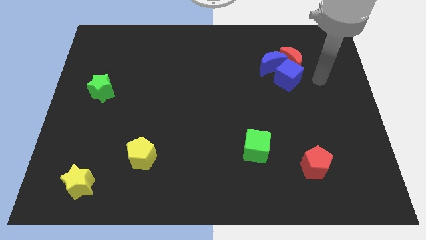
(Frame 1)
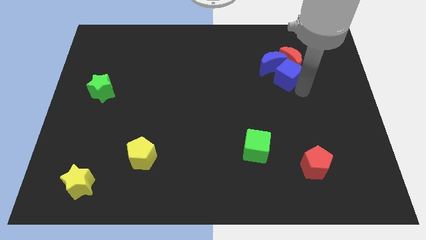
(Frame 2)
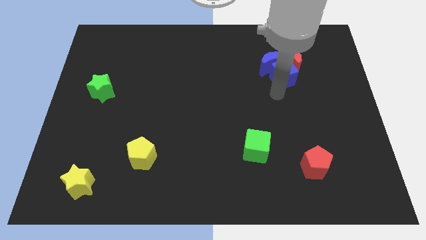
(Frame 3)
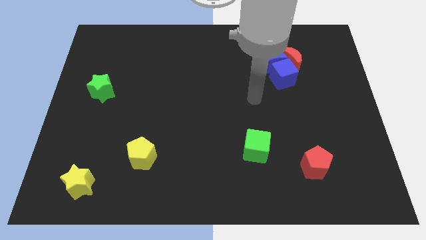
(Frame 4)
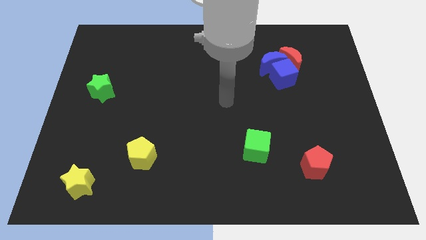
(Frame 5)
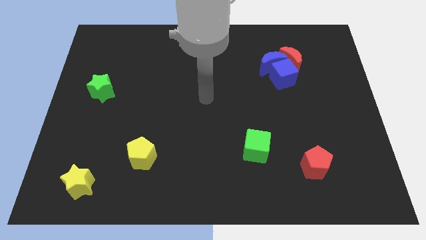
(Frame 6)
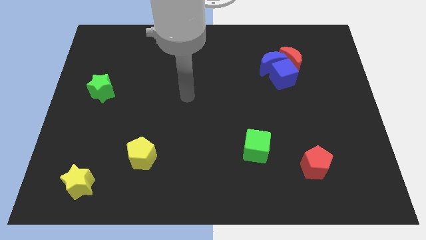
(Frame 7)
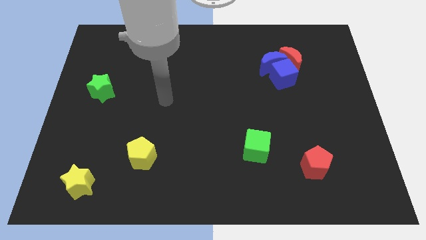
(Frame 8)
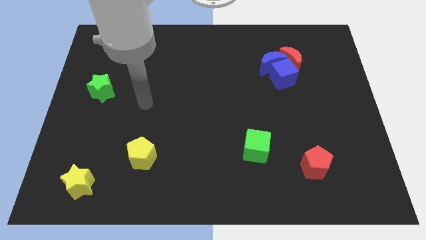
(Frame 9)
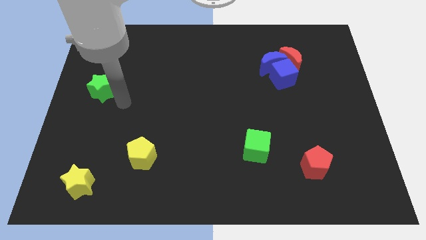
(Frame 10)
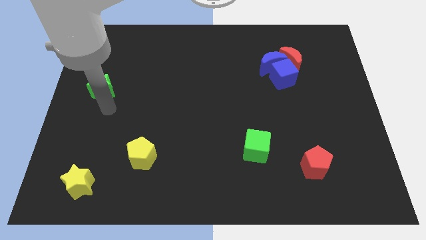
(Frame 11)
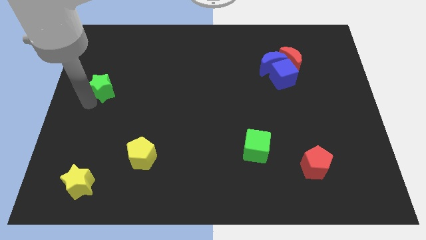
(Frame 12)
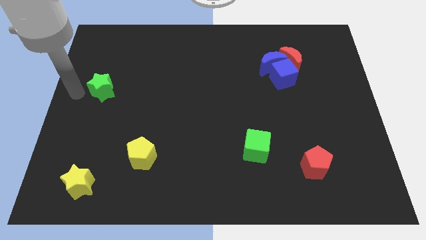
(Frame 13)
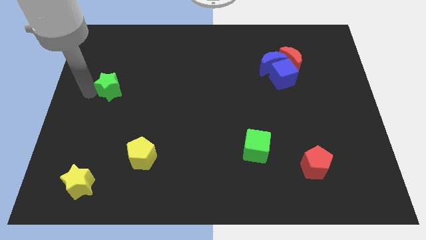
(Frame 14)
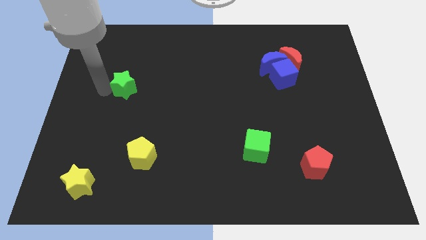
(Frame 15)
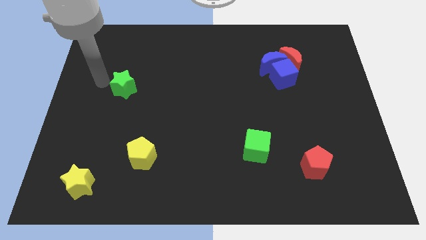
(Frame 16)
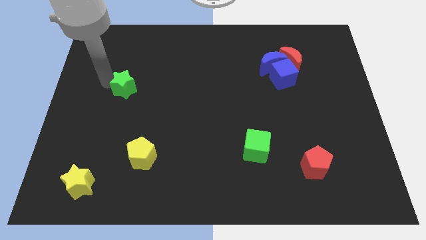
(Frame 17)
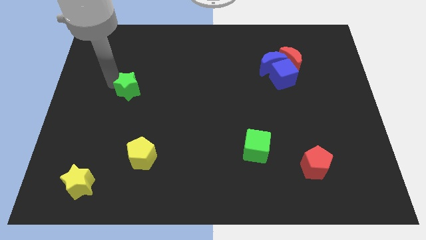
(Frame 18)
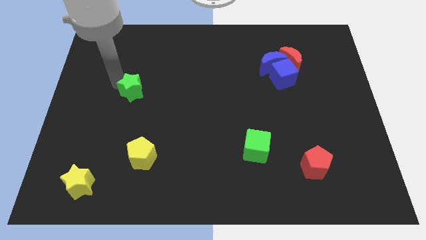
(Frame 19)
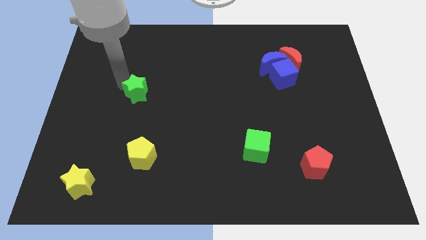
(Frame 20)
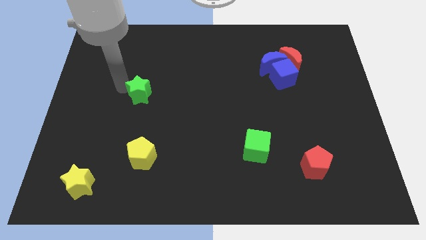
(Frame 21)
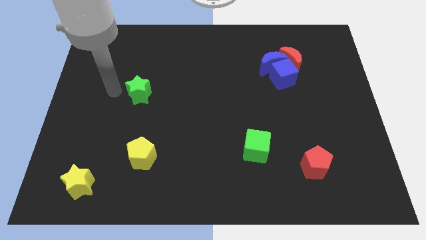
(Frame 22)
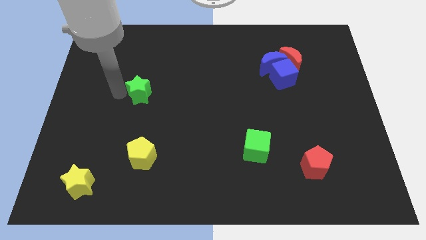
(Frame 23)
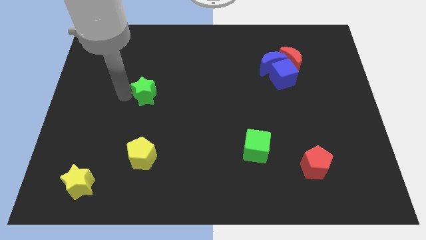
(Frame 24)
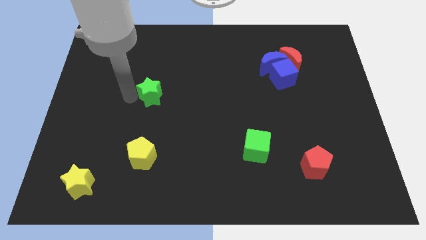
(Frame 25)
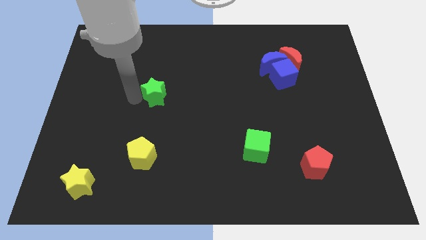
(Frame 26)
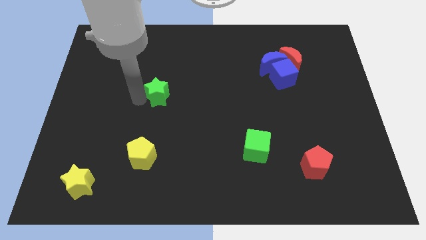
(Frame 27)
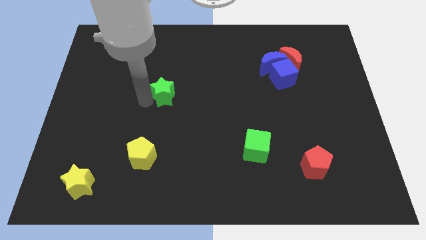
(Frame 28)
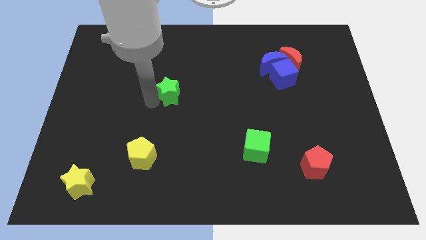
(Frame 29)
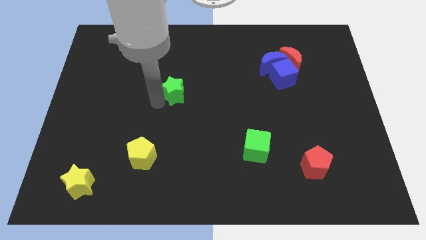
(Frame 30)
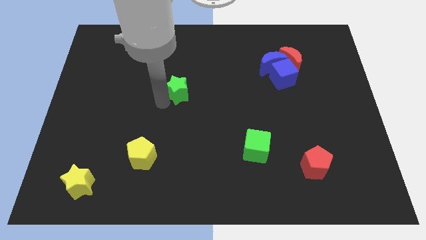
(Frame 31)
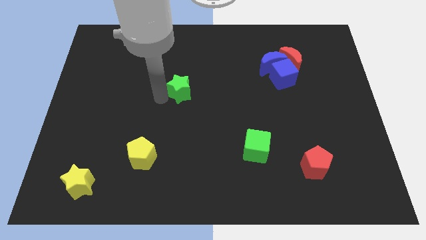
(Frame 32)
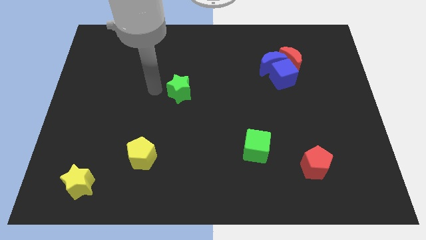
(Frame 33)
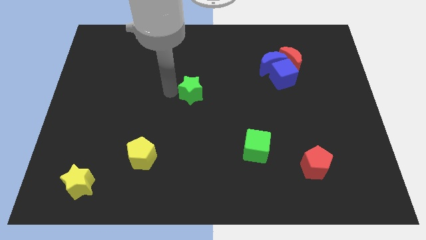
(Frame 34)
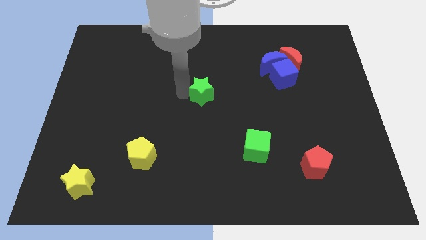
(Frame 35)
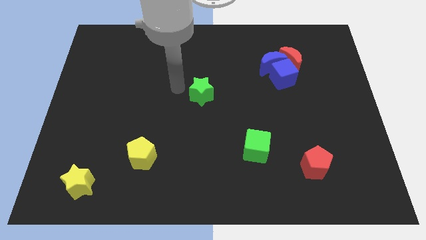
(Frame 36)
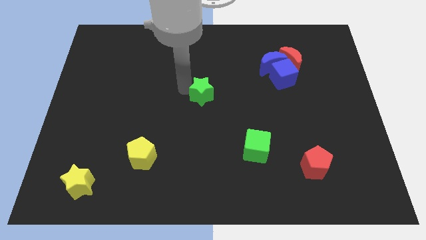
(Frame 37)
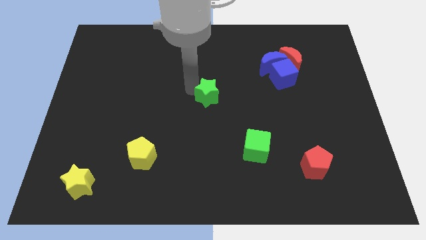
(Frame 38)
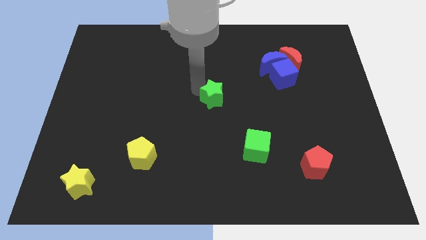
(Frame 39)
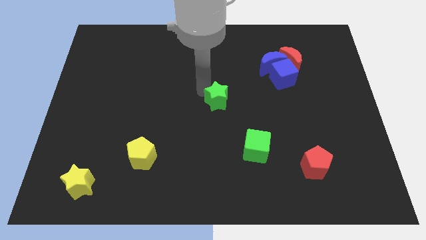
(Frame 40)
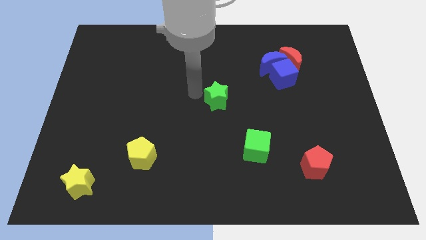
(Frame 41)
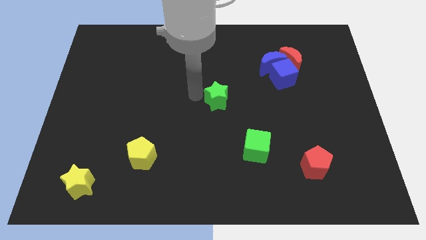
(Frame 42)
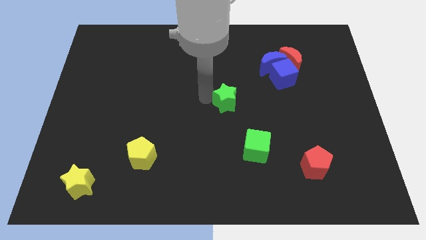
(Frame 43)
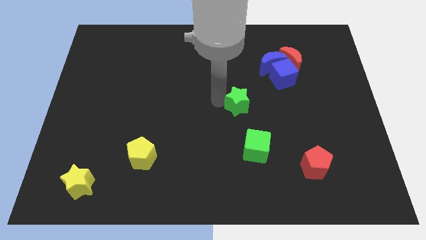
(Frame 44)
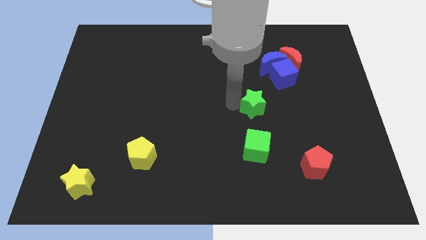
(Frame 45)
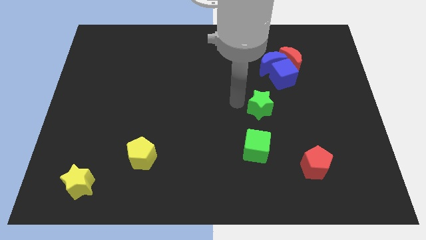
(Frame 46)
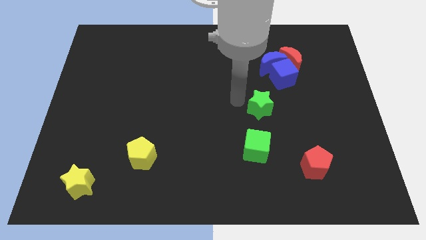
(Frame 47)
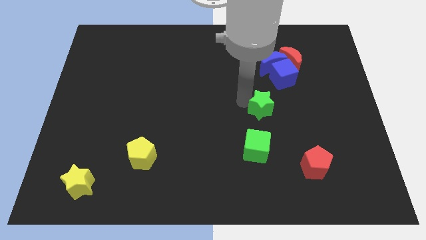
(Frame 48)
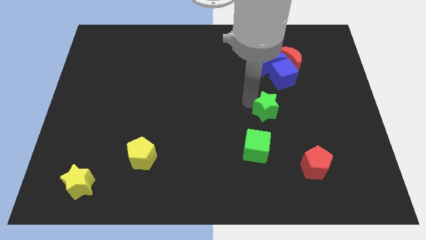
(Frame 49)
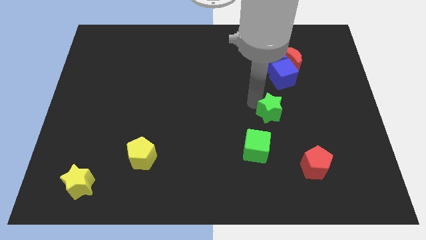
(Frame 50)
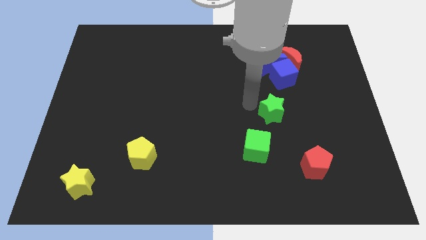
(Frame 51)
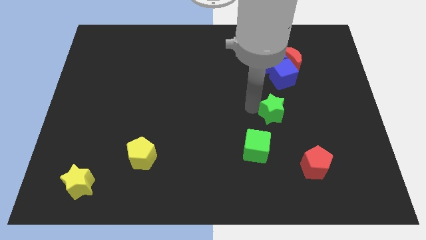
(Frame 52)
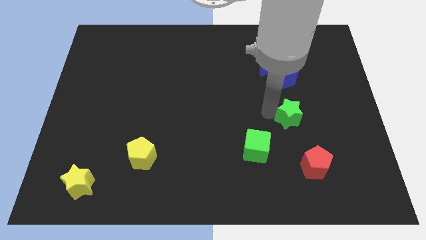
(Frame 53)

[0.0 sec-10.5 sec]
move the green star to the top side of the red pentagon

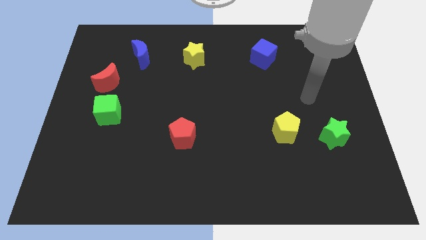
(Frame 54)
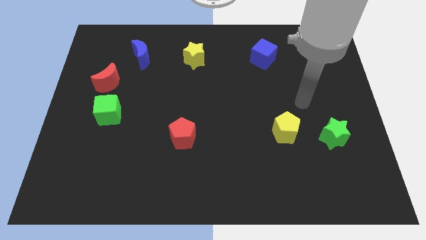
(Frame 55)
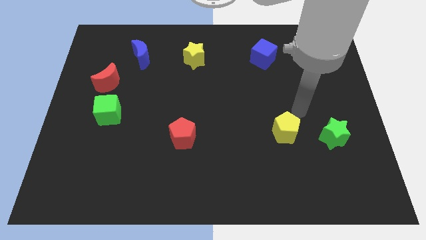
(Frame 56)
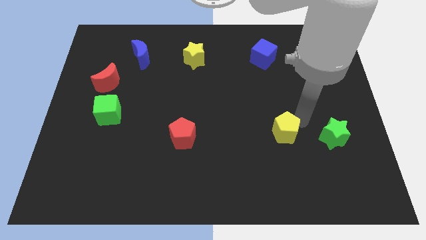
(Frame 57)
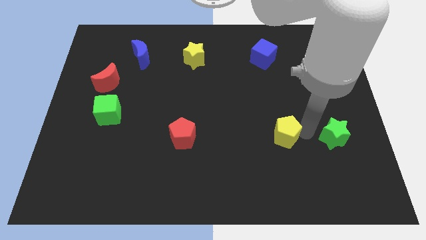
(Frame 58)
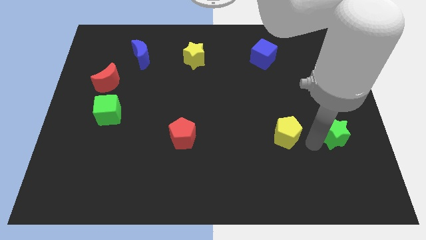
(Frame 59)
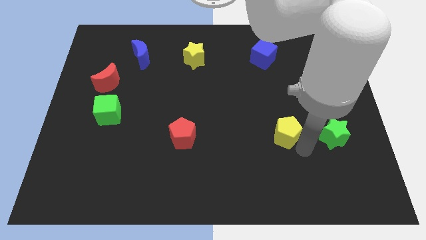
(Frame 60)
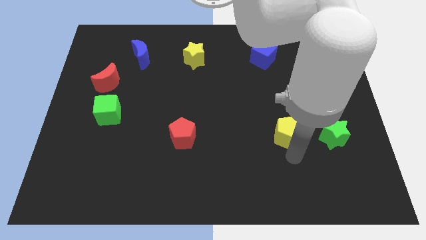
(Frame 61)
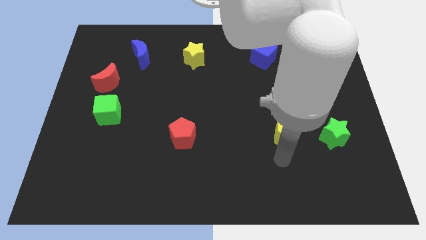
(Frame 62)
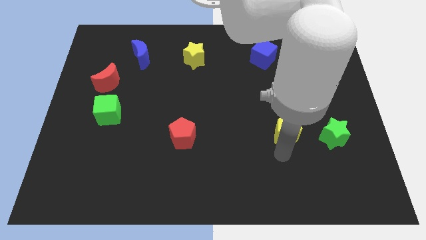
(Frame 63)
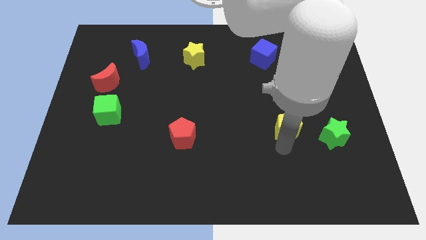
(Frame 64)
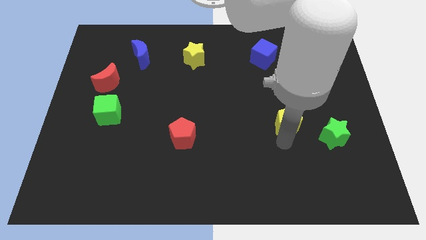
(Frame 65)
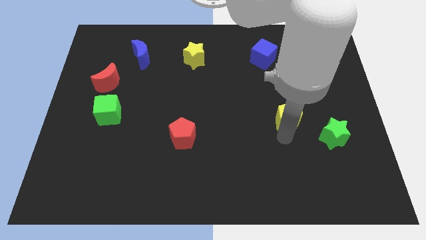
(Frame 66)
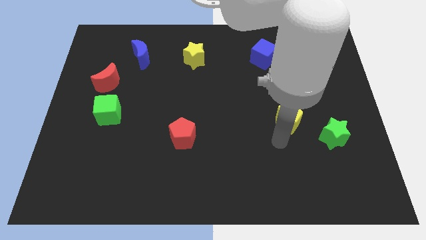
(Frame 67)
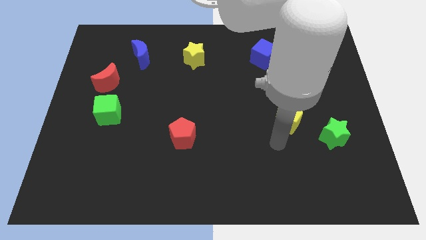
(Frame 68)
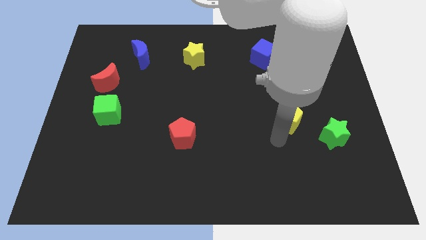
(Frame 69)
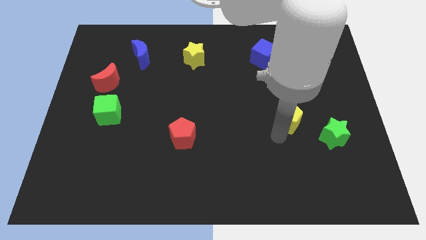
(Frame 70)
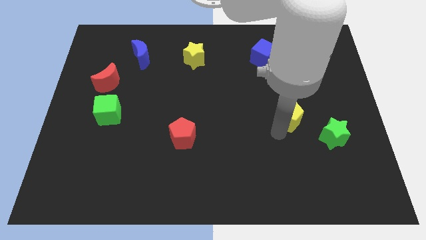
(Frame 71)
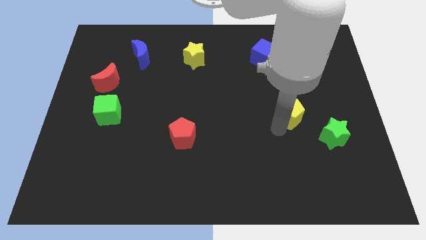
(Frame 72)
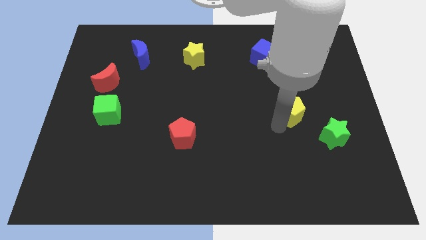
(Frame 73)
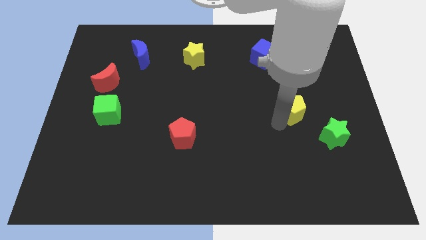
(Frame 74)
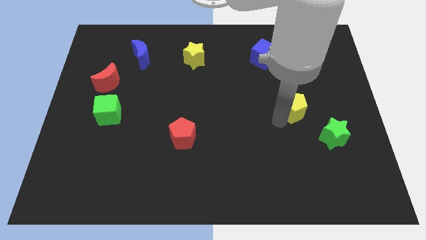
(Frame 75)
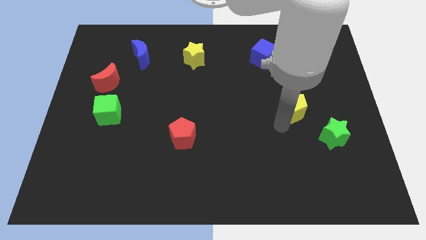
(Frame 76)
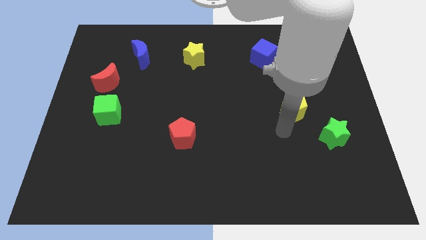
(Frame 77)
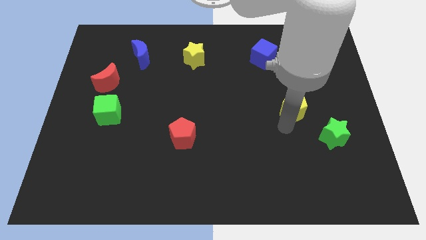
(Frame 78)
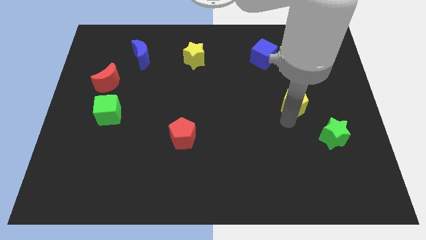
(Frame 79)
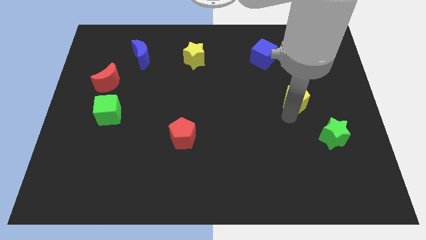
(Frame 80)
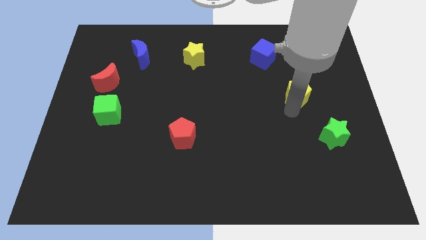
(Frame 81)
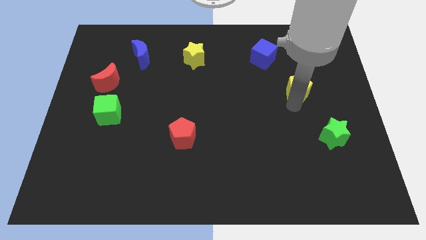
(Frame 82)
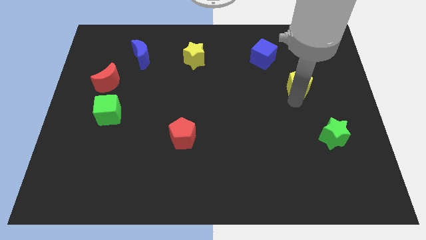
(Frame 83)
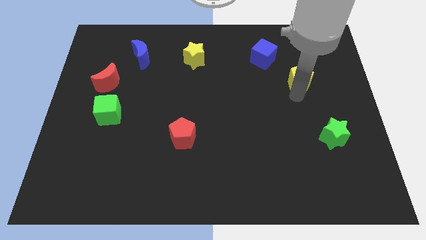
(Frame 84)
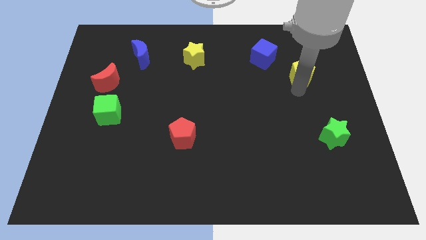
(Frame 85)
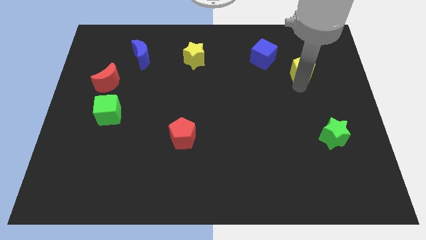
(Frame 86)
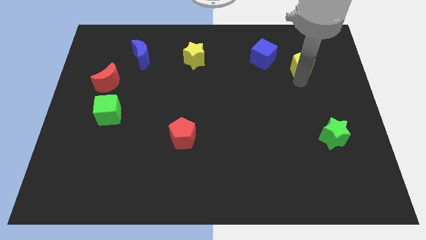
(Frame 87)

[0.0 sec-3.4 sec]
put the yellow pentagon right of the blue cube
